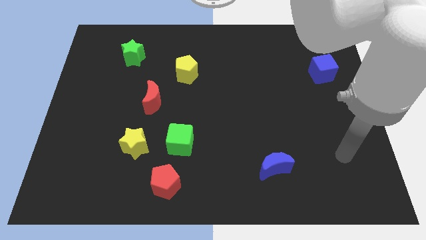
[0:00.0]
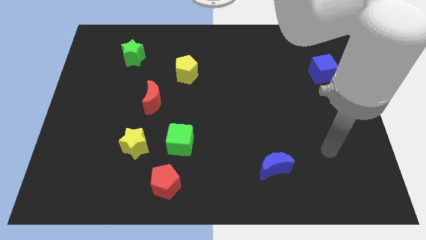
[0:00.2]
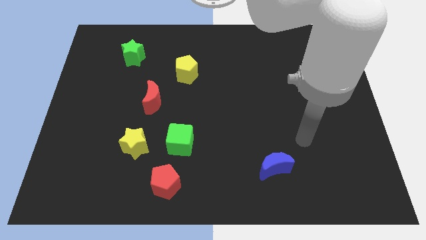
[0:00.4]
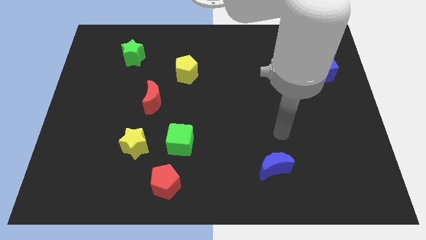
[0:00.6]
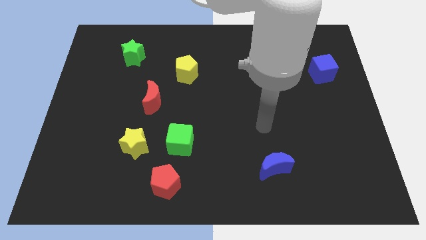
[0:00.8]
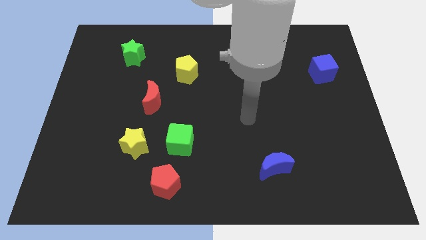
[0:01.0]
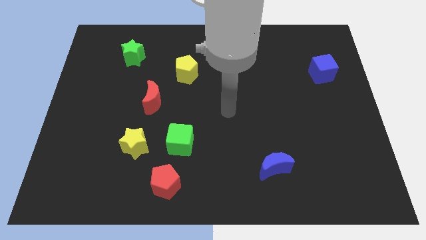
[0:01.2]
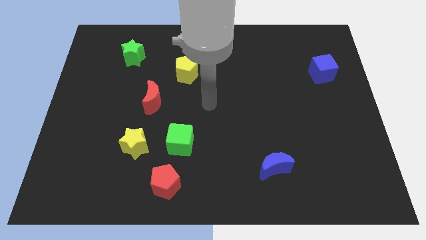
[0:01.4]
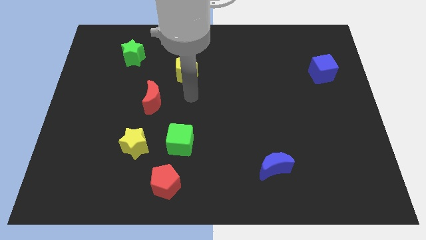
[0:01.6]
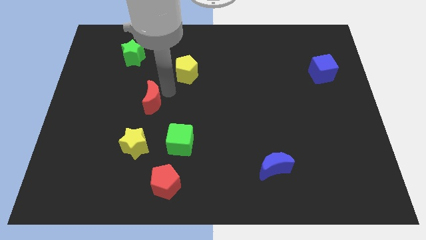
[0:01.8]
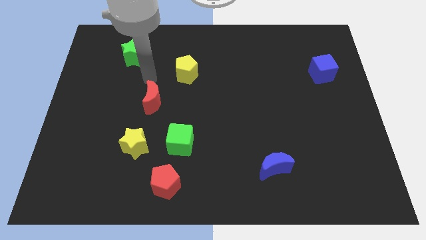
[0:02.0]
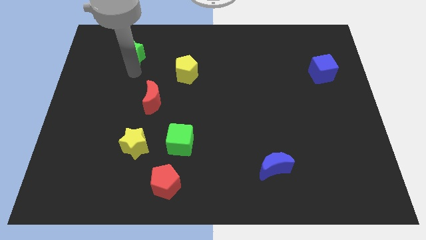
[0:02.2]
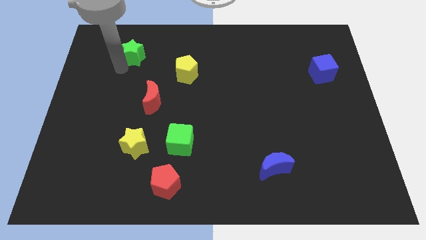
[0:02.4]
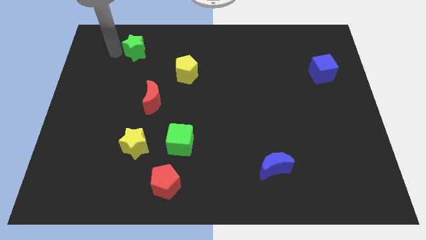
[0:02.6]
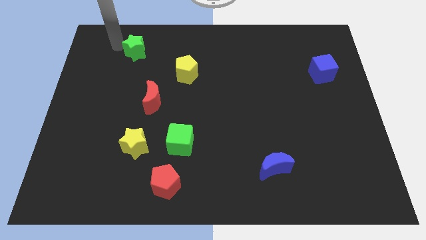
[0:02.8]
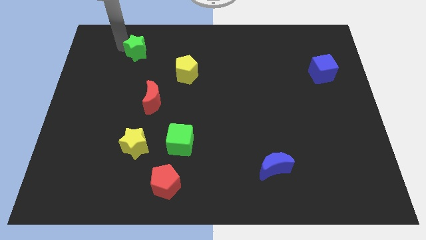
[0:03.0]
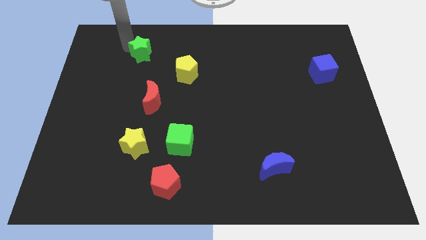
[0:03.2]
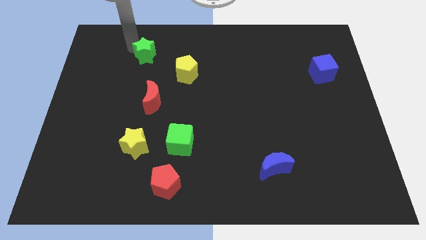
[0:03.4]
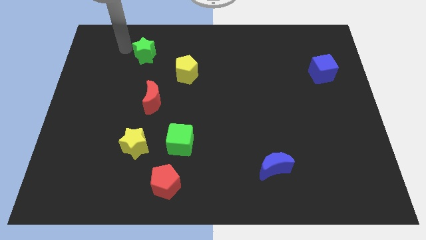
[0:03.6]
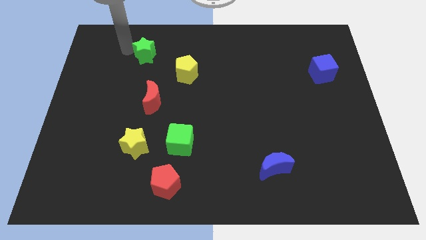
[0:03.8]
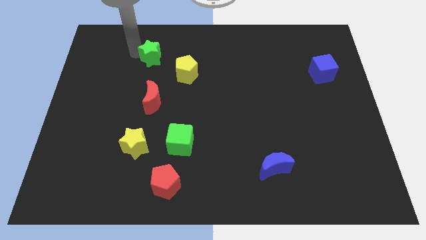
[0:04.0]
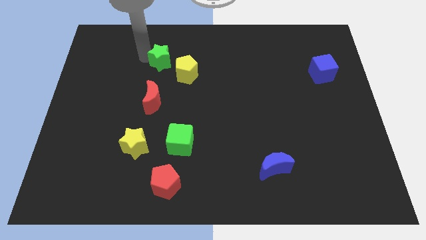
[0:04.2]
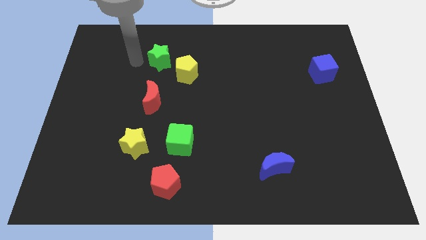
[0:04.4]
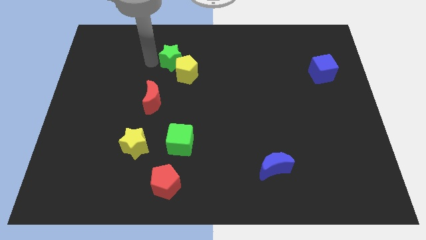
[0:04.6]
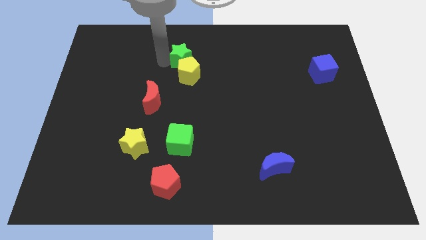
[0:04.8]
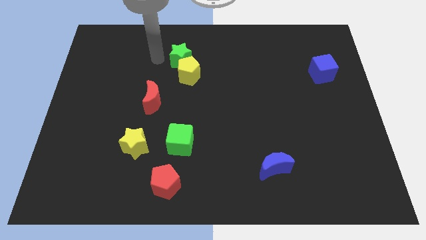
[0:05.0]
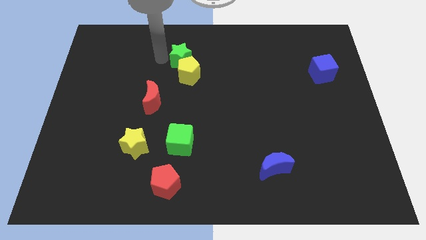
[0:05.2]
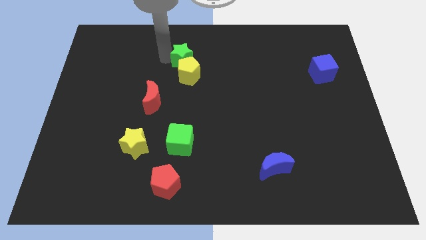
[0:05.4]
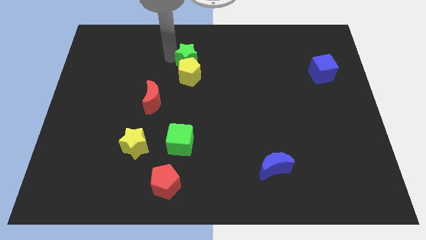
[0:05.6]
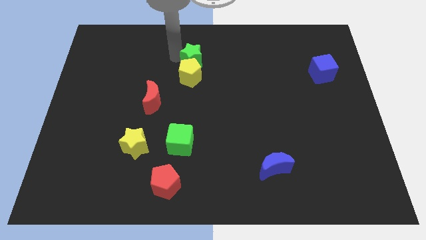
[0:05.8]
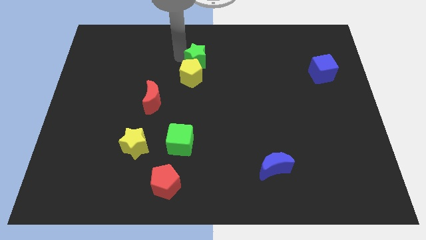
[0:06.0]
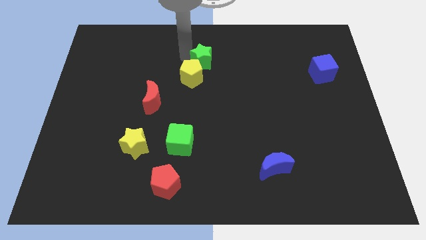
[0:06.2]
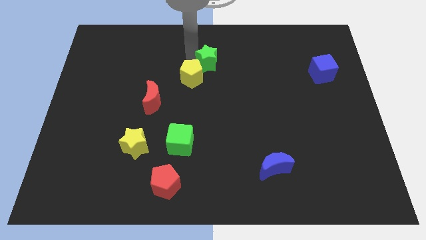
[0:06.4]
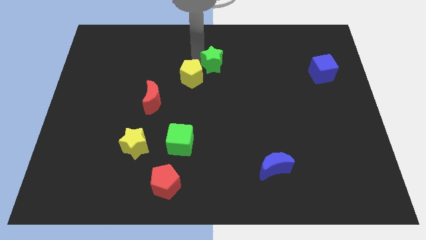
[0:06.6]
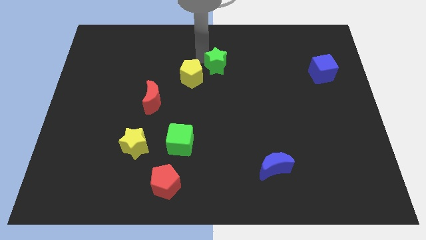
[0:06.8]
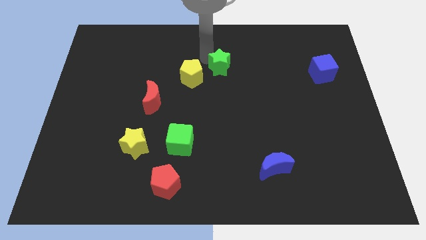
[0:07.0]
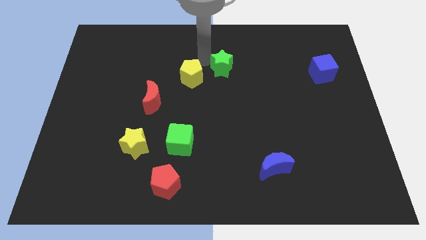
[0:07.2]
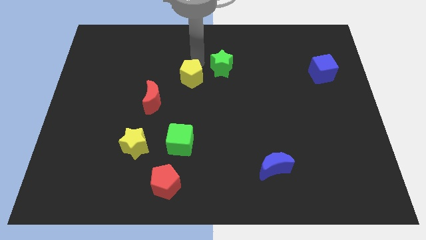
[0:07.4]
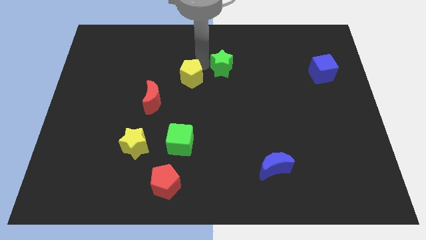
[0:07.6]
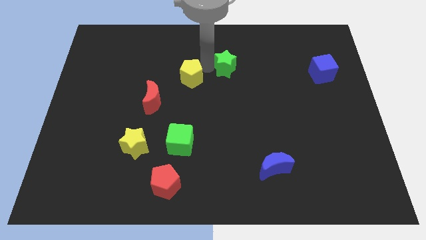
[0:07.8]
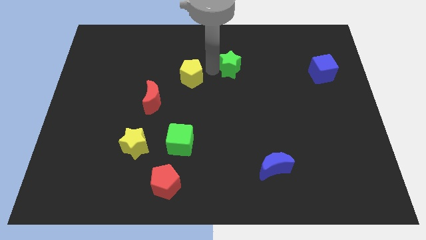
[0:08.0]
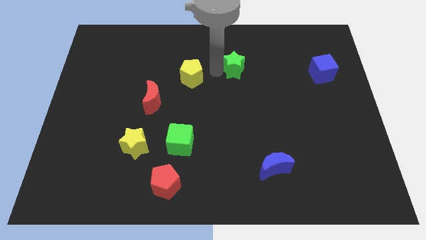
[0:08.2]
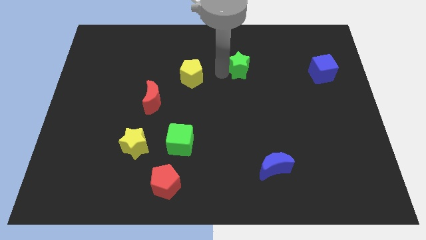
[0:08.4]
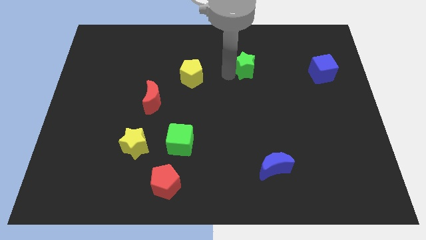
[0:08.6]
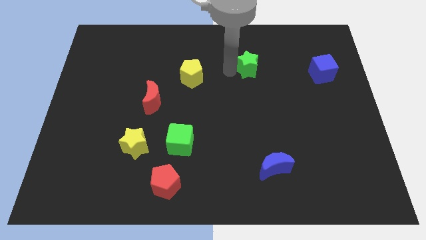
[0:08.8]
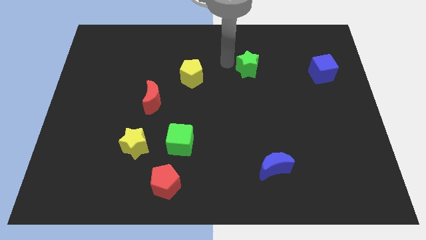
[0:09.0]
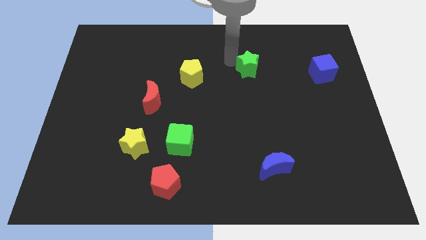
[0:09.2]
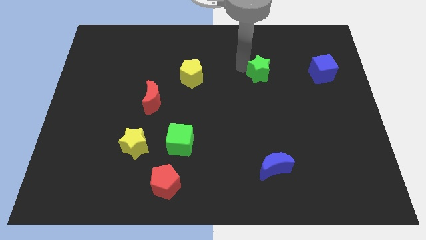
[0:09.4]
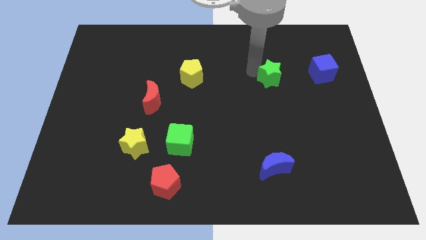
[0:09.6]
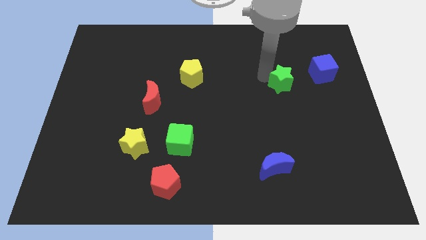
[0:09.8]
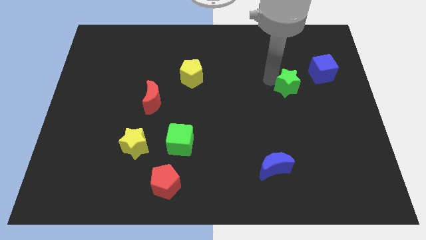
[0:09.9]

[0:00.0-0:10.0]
put the green star to the bottom left side of the blue cube

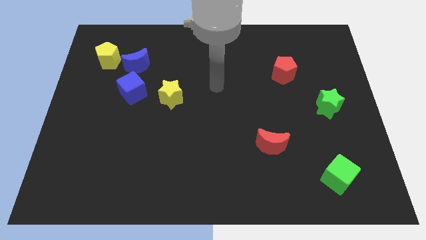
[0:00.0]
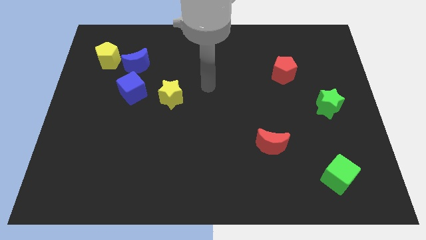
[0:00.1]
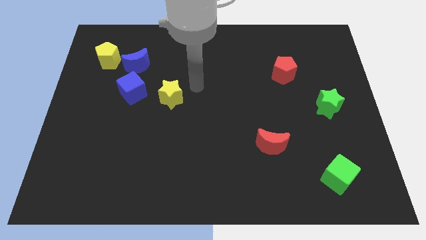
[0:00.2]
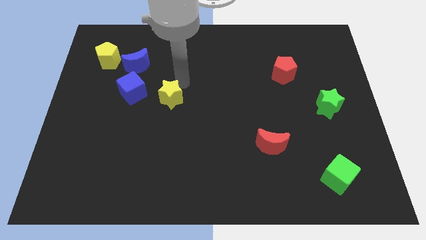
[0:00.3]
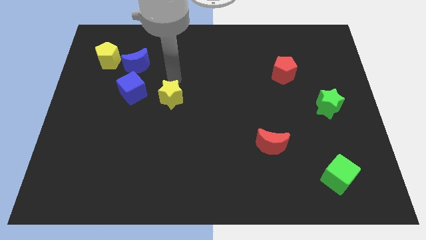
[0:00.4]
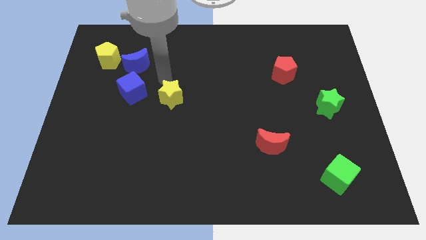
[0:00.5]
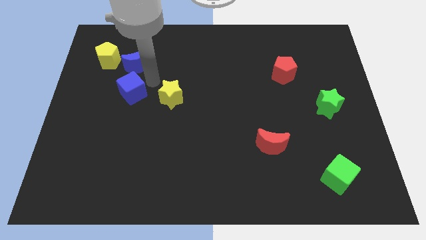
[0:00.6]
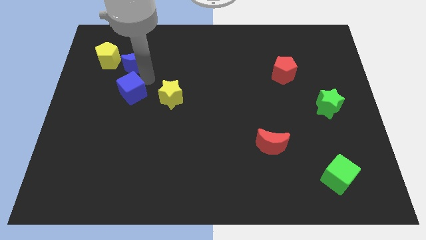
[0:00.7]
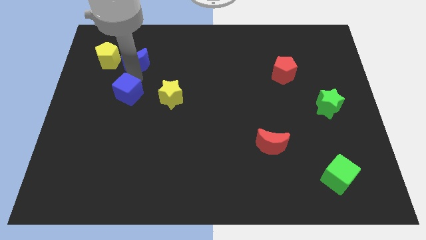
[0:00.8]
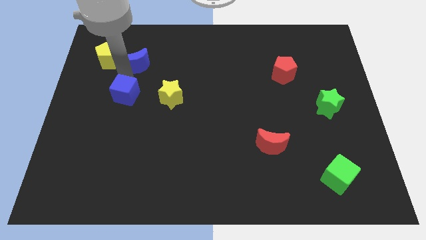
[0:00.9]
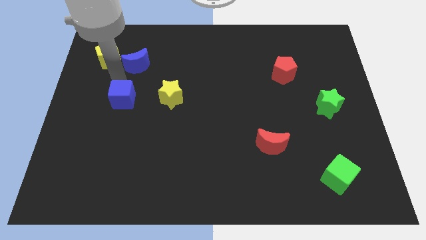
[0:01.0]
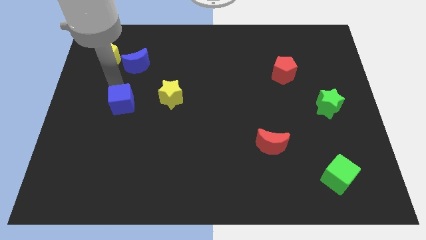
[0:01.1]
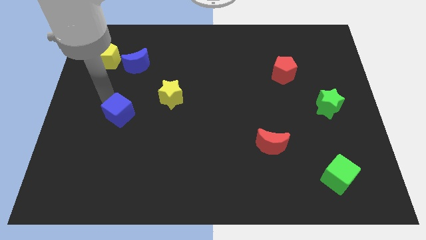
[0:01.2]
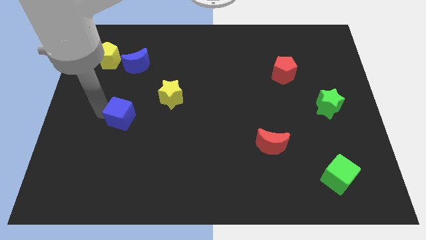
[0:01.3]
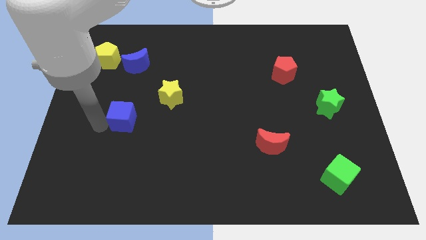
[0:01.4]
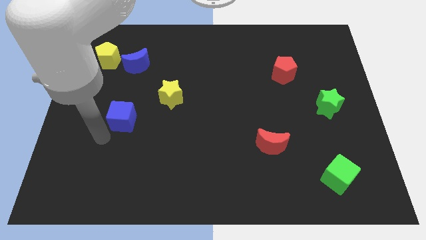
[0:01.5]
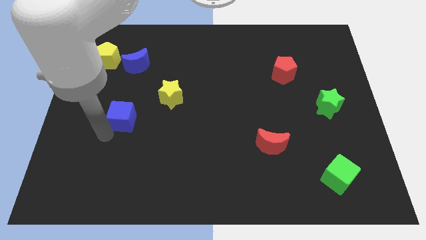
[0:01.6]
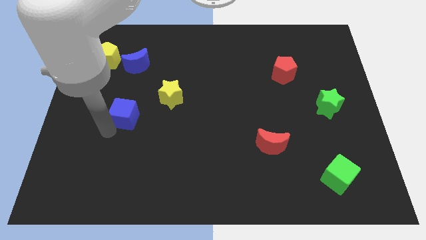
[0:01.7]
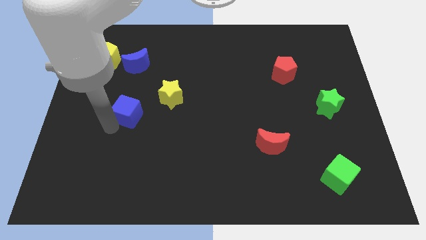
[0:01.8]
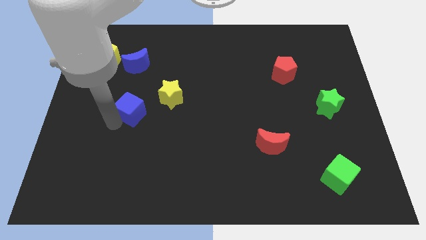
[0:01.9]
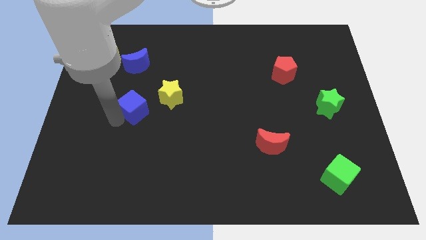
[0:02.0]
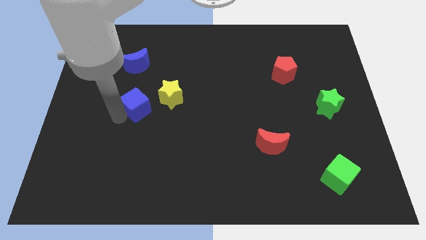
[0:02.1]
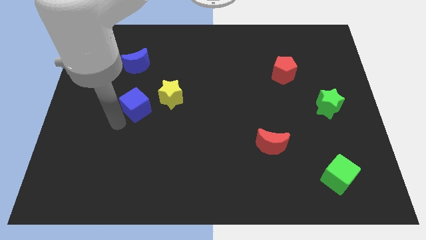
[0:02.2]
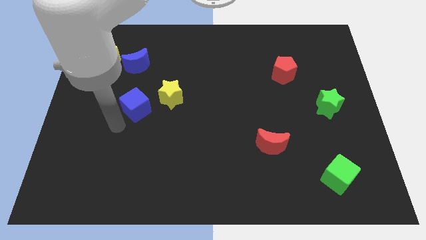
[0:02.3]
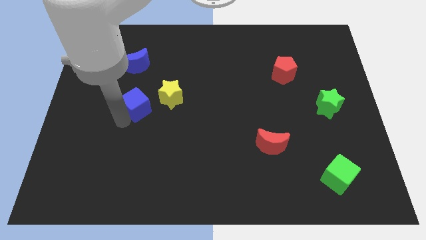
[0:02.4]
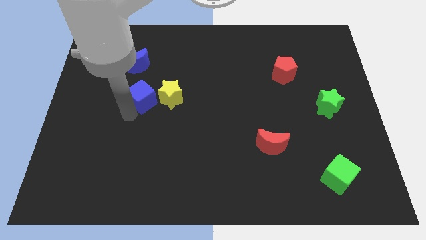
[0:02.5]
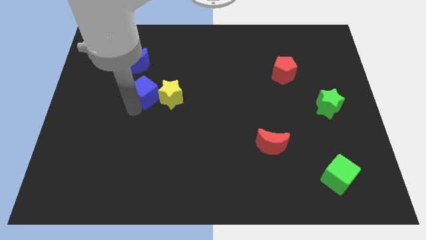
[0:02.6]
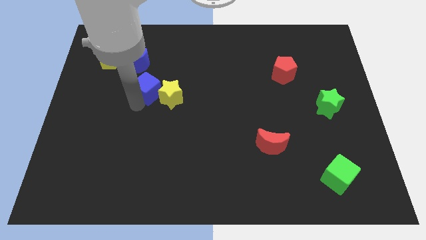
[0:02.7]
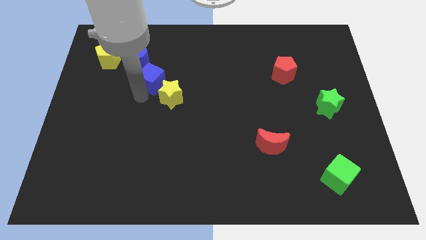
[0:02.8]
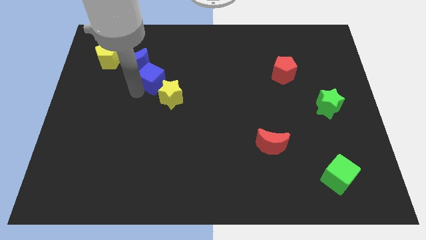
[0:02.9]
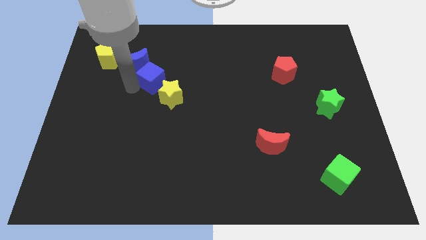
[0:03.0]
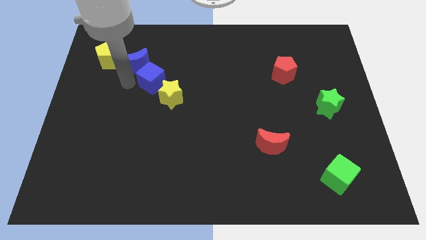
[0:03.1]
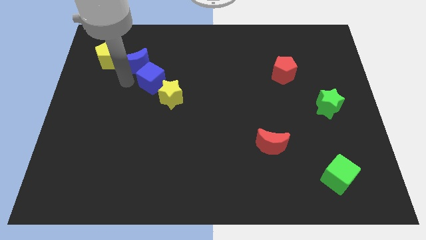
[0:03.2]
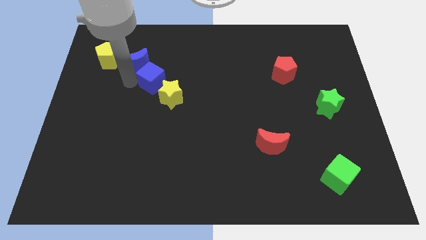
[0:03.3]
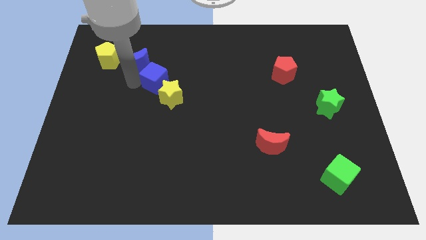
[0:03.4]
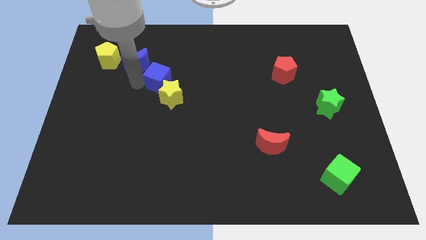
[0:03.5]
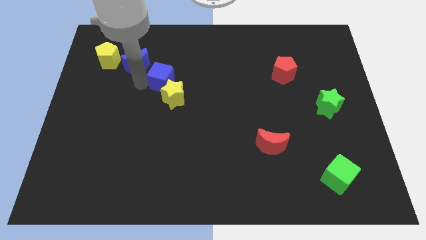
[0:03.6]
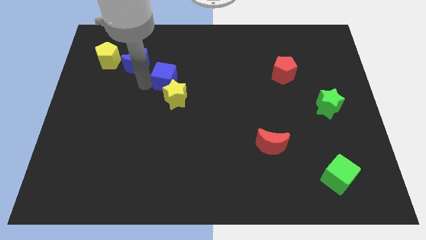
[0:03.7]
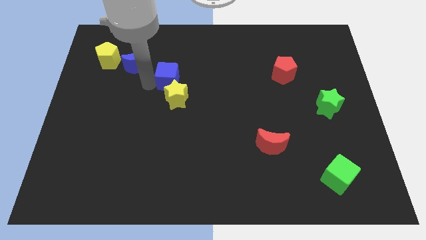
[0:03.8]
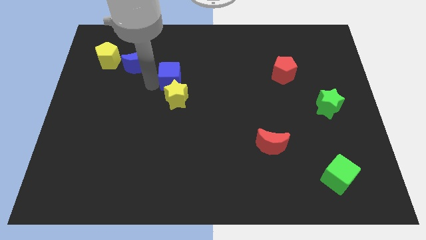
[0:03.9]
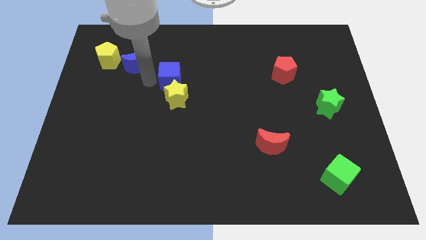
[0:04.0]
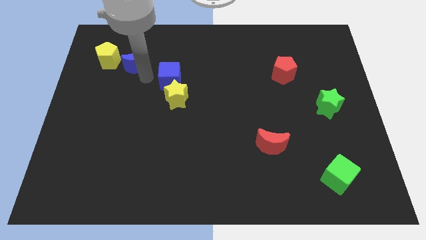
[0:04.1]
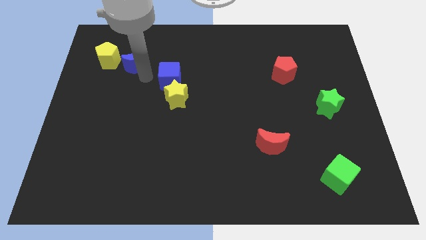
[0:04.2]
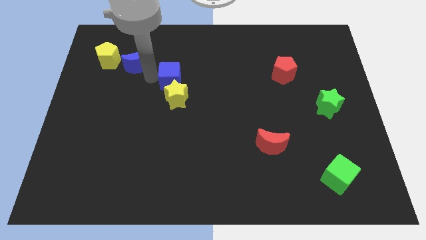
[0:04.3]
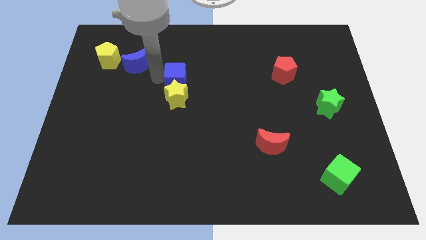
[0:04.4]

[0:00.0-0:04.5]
push the blue cube diagonally up and to the right of the yellow star
